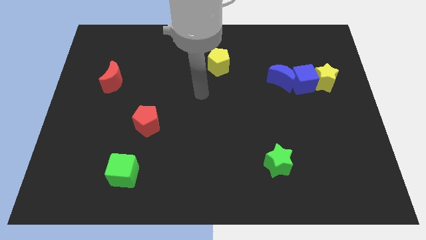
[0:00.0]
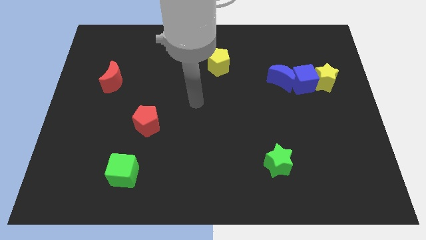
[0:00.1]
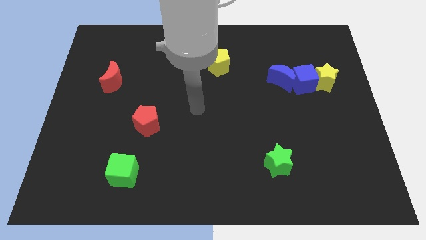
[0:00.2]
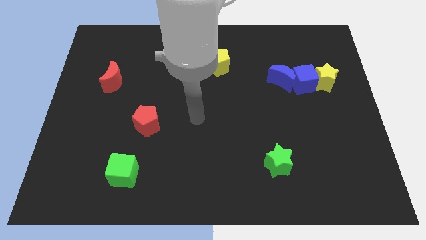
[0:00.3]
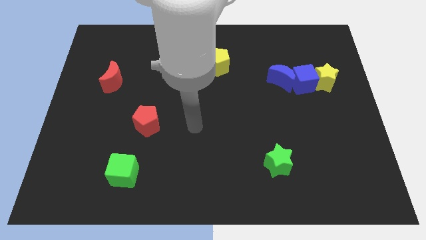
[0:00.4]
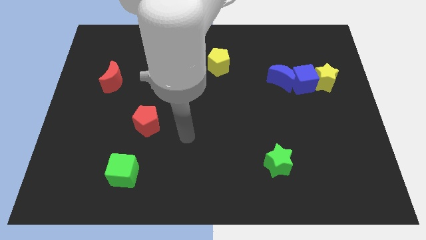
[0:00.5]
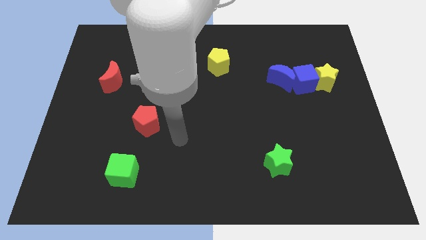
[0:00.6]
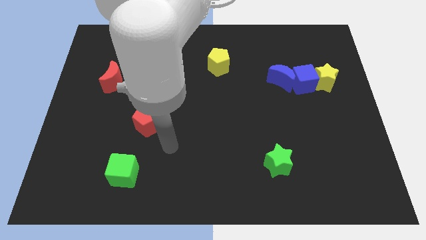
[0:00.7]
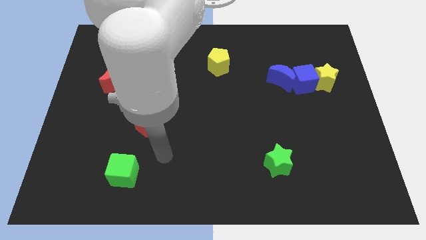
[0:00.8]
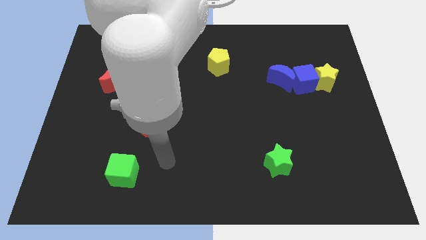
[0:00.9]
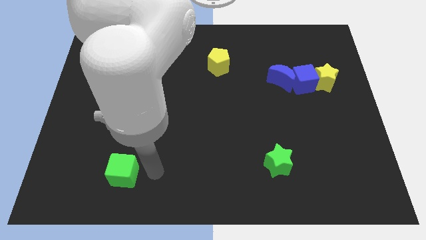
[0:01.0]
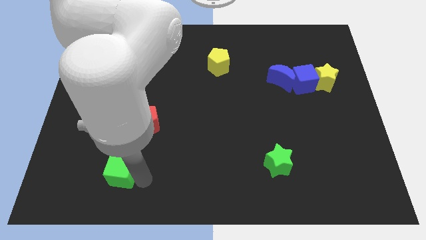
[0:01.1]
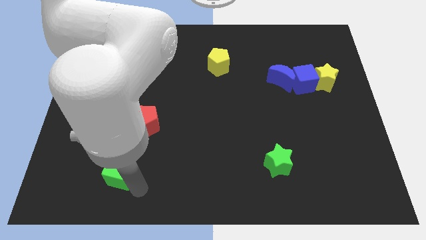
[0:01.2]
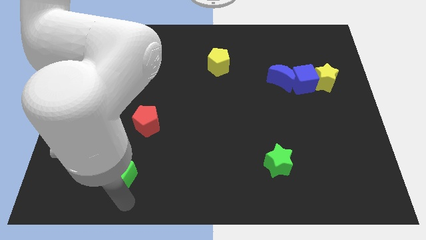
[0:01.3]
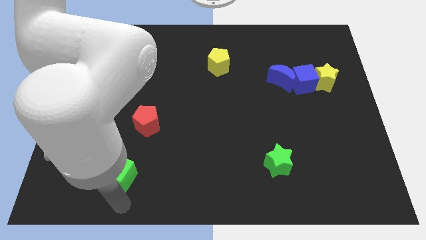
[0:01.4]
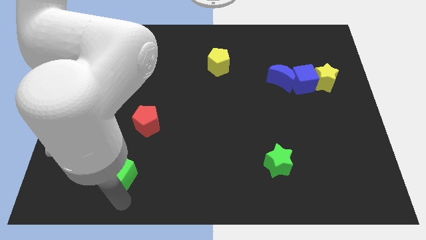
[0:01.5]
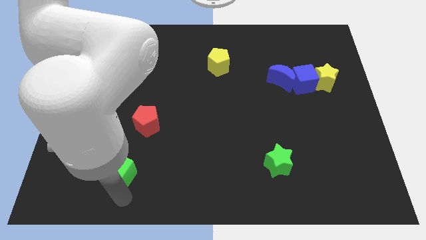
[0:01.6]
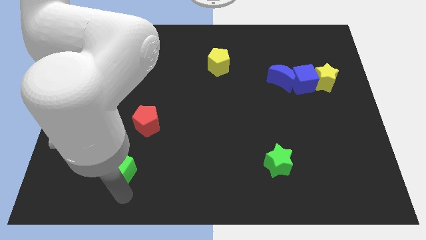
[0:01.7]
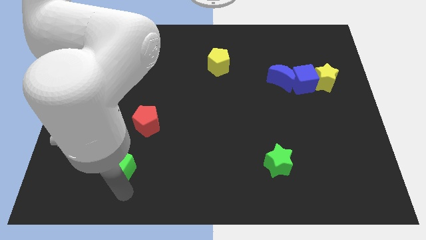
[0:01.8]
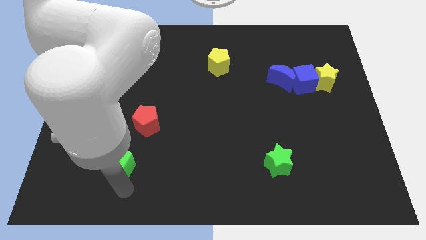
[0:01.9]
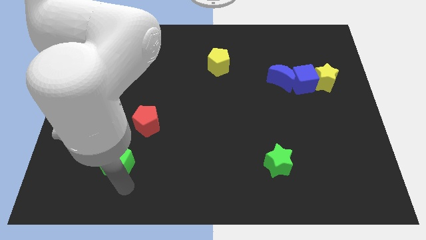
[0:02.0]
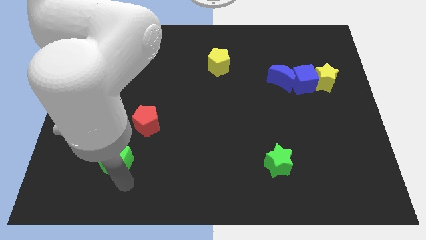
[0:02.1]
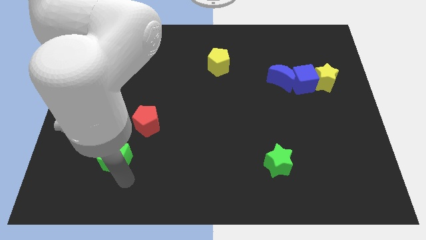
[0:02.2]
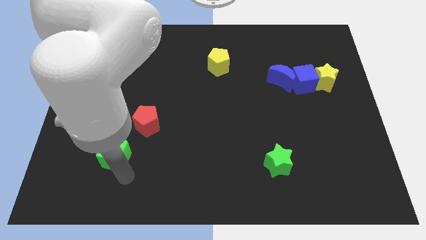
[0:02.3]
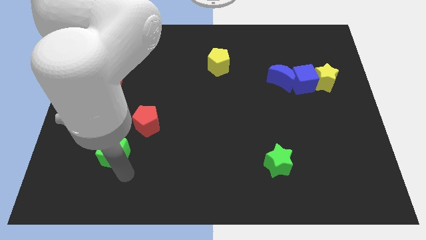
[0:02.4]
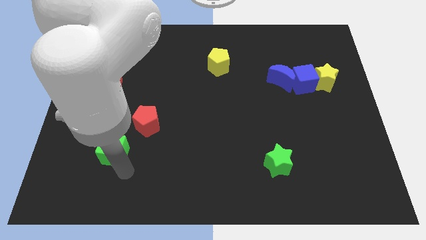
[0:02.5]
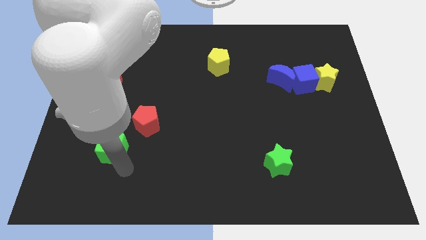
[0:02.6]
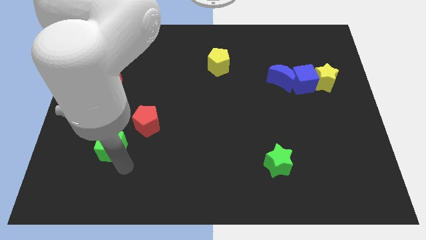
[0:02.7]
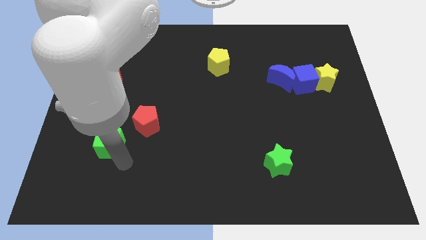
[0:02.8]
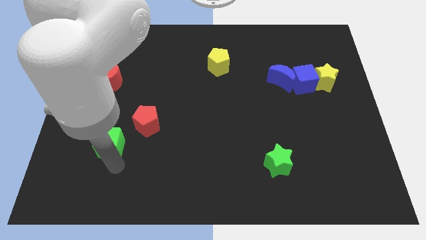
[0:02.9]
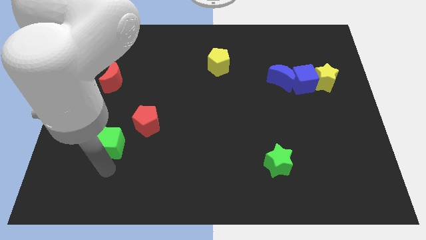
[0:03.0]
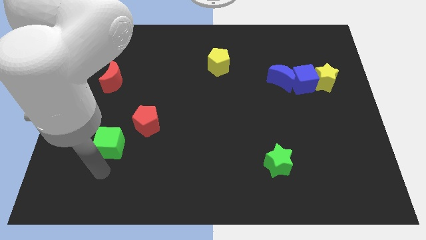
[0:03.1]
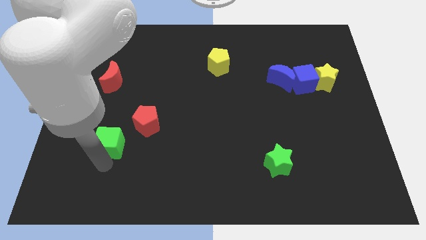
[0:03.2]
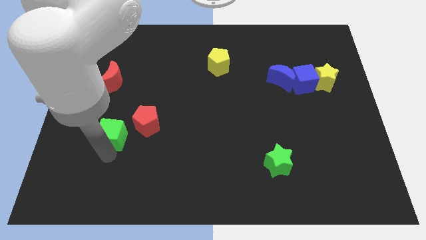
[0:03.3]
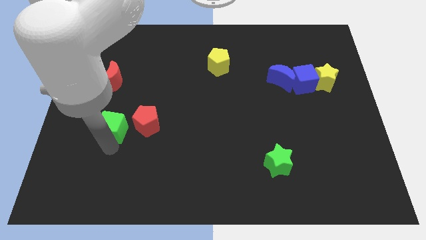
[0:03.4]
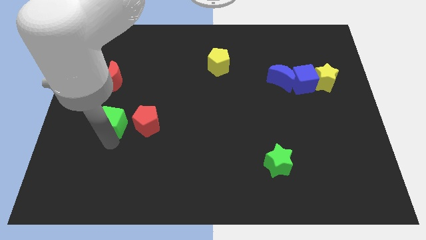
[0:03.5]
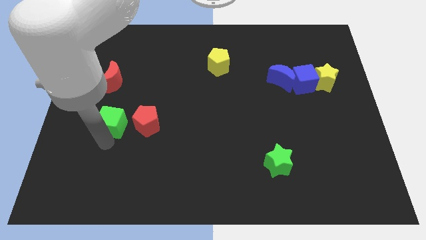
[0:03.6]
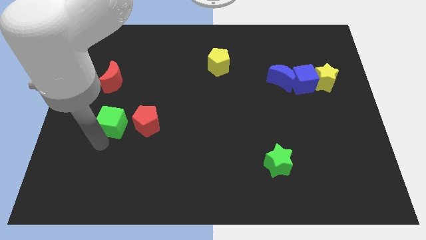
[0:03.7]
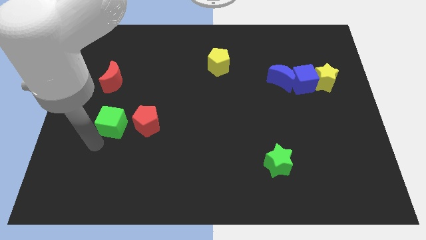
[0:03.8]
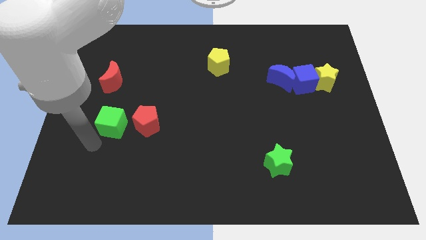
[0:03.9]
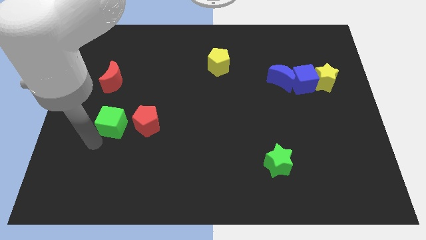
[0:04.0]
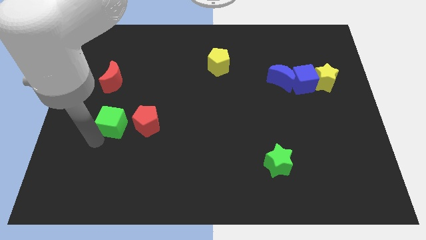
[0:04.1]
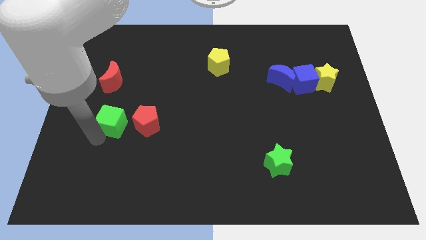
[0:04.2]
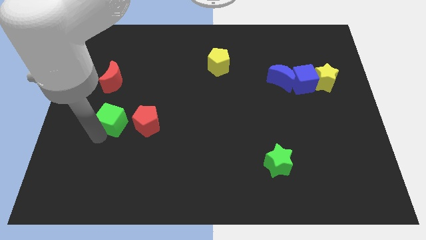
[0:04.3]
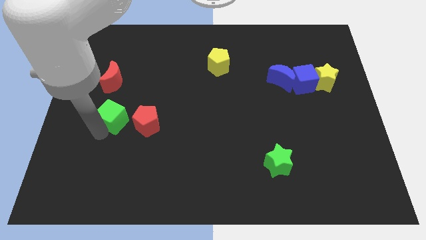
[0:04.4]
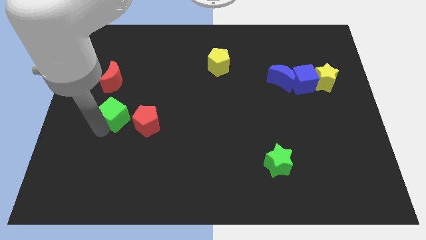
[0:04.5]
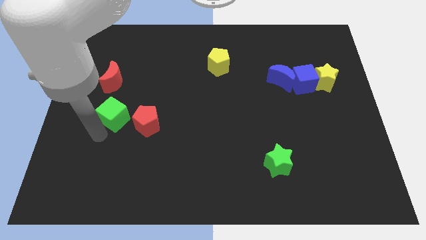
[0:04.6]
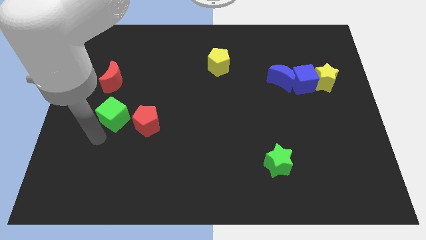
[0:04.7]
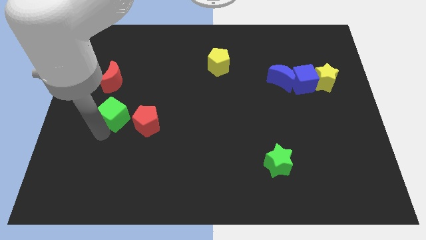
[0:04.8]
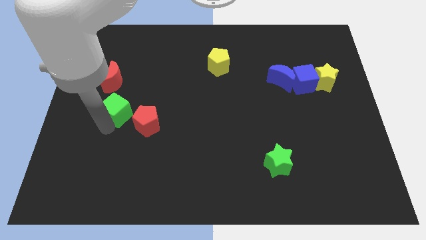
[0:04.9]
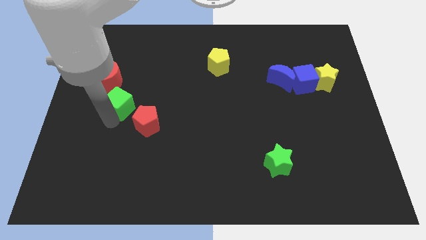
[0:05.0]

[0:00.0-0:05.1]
slide the green cube to the bottom right of the red moon

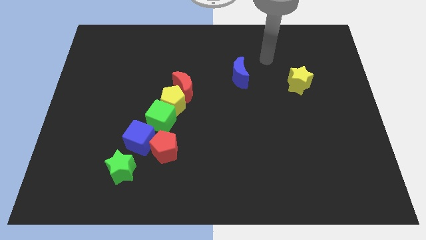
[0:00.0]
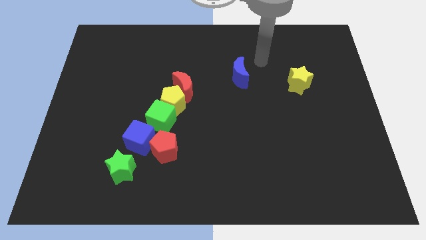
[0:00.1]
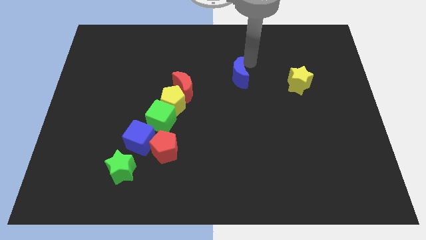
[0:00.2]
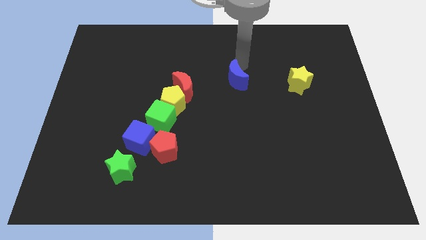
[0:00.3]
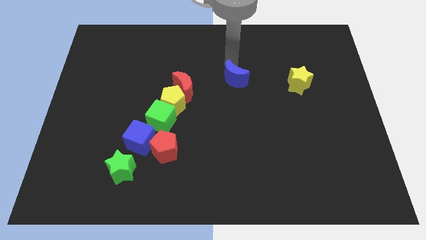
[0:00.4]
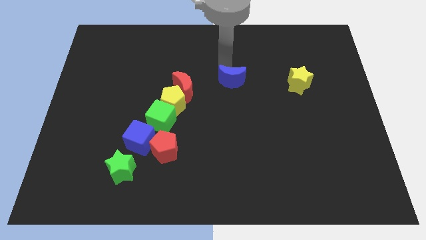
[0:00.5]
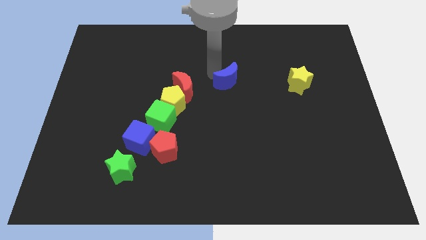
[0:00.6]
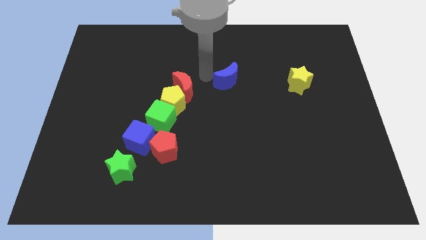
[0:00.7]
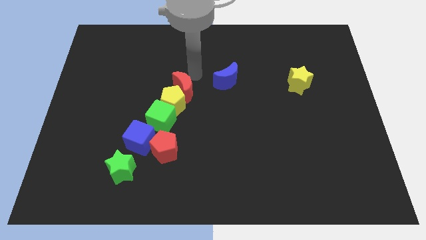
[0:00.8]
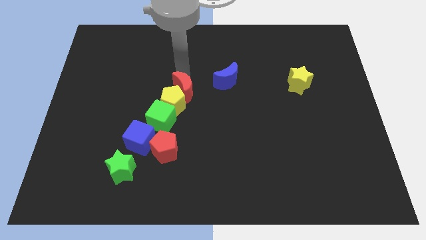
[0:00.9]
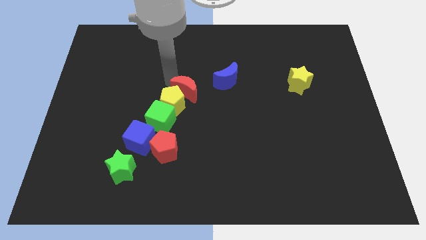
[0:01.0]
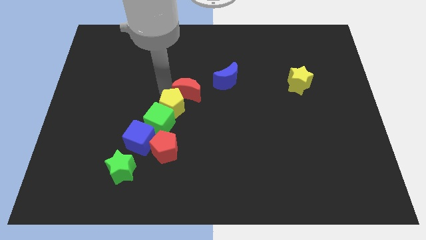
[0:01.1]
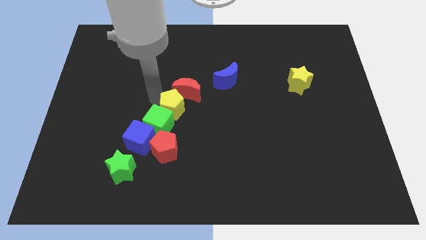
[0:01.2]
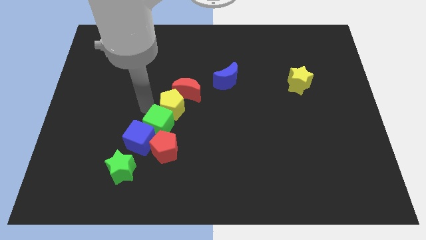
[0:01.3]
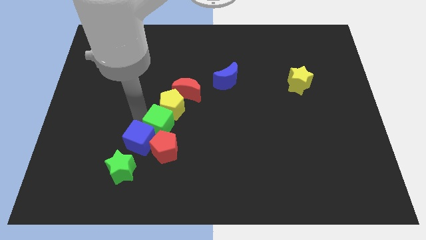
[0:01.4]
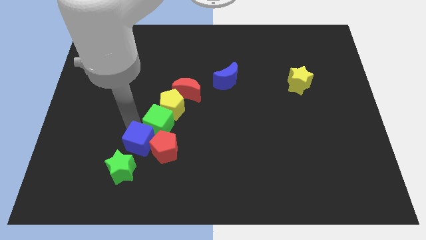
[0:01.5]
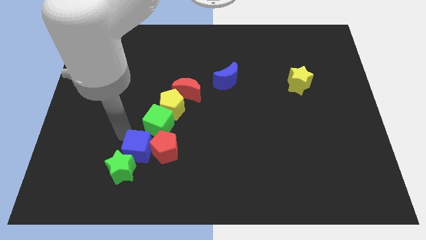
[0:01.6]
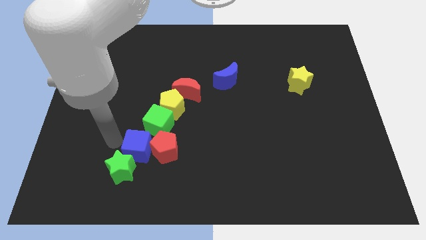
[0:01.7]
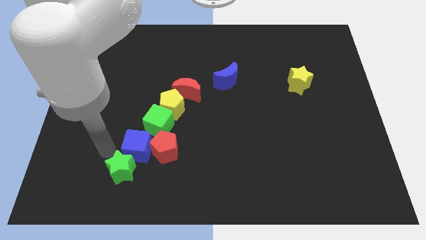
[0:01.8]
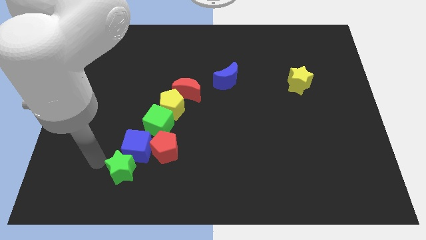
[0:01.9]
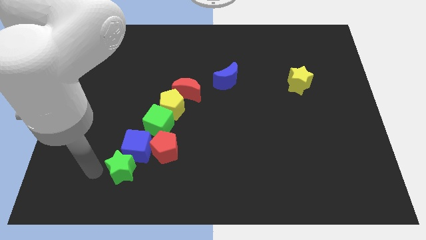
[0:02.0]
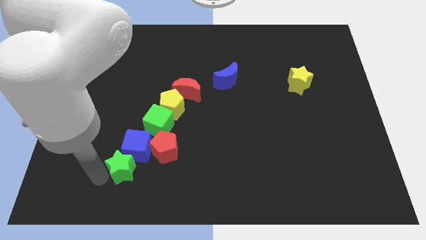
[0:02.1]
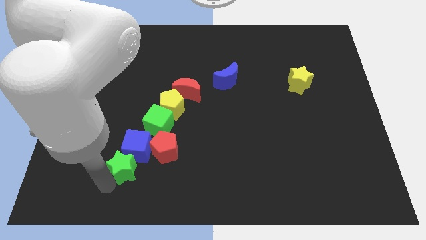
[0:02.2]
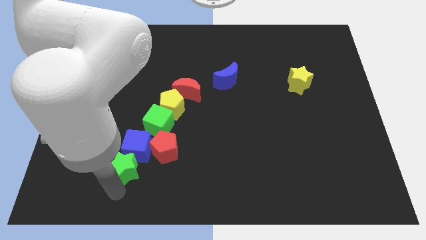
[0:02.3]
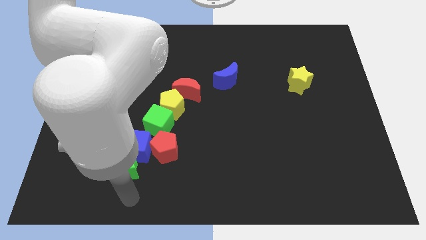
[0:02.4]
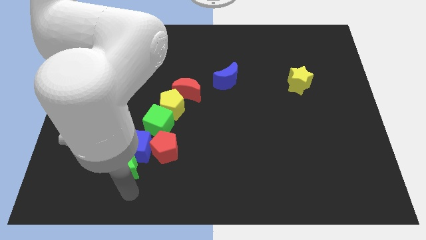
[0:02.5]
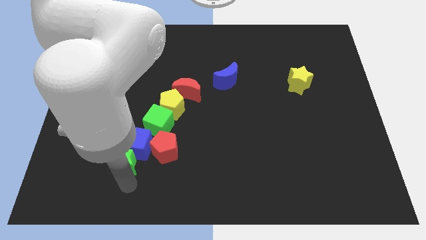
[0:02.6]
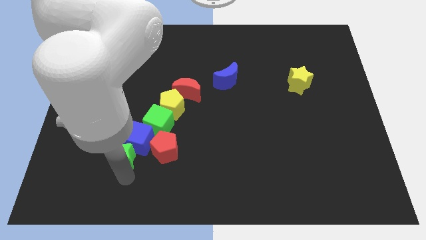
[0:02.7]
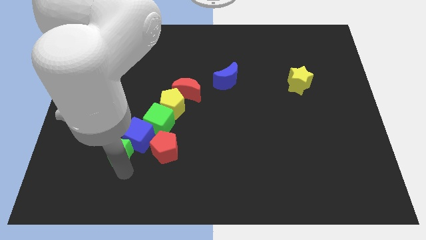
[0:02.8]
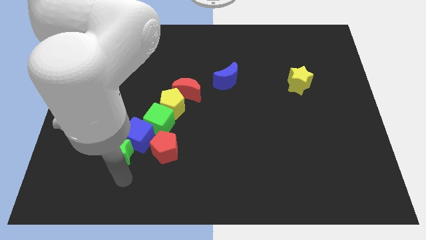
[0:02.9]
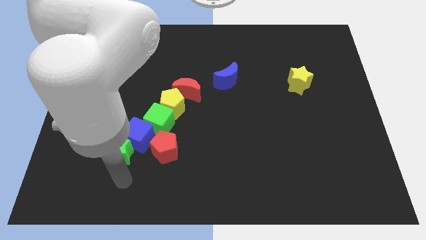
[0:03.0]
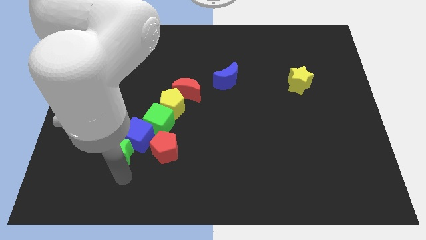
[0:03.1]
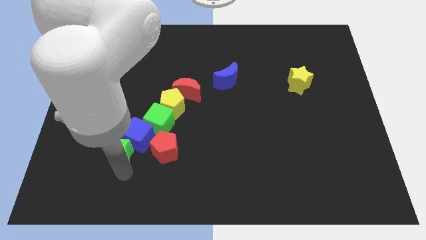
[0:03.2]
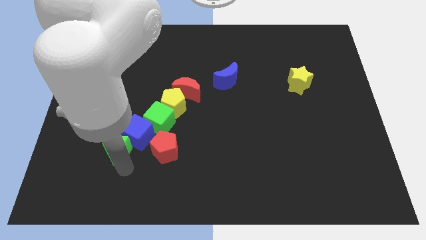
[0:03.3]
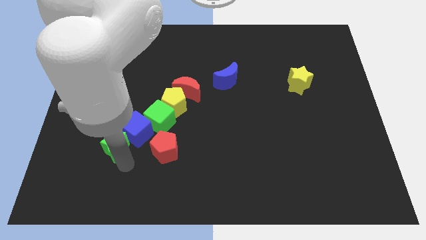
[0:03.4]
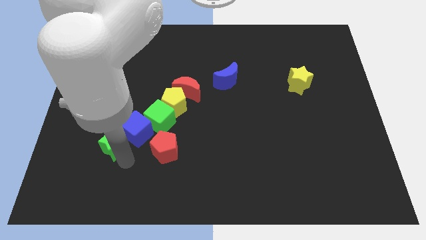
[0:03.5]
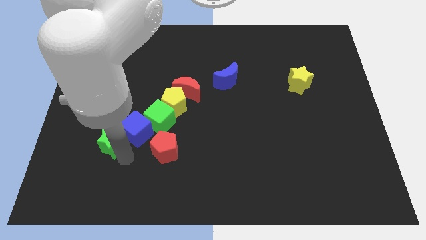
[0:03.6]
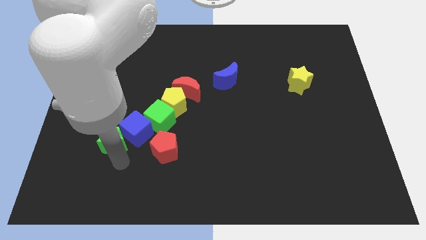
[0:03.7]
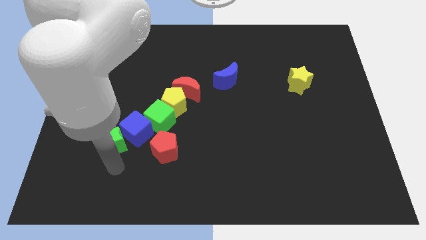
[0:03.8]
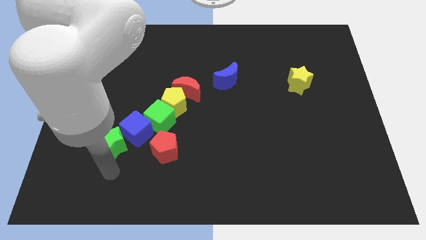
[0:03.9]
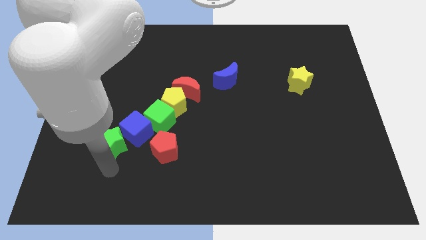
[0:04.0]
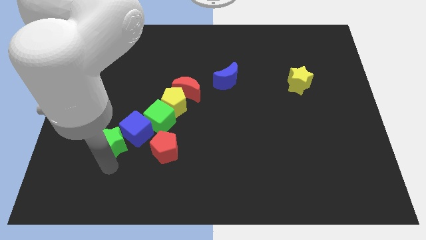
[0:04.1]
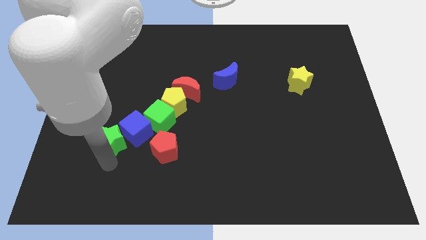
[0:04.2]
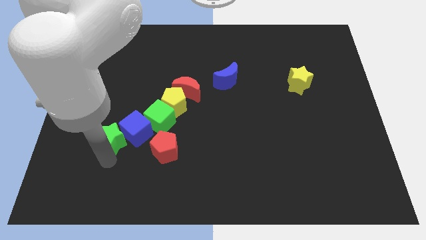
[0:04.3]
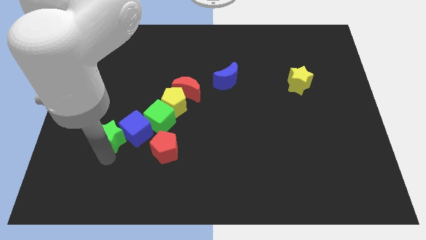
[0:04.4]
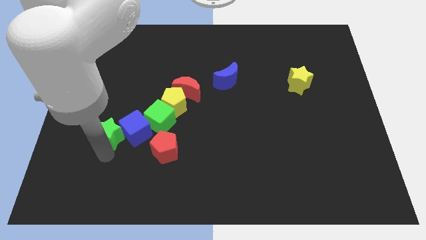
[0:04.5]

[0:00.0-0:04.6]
move the green star left of the green cube
